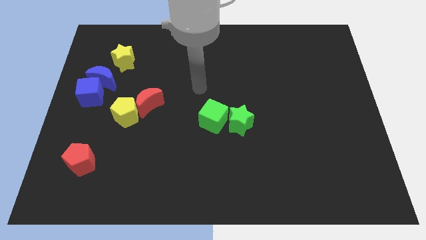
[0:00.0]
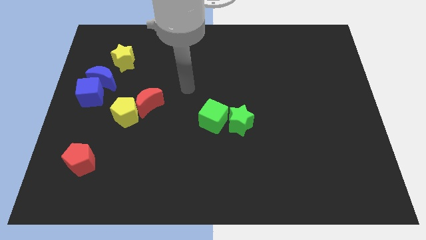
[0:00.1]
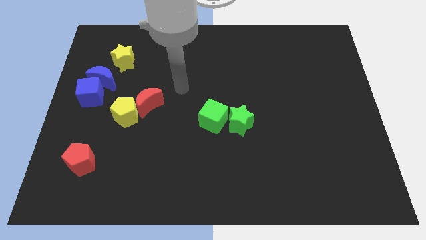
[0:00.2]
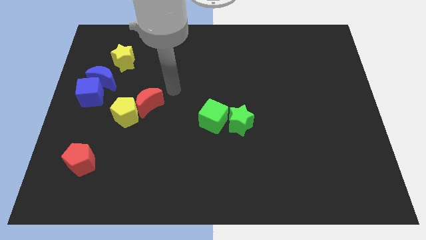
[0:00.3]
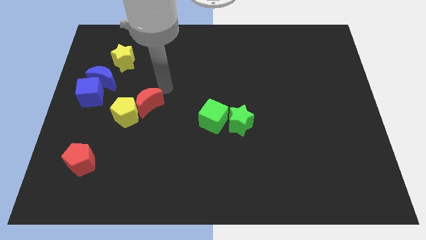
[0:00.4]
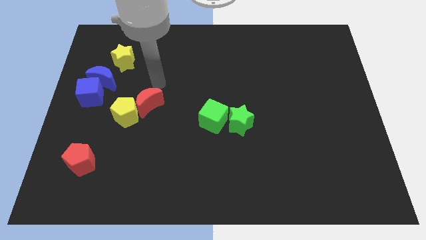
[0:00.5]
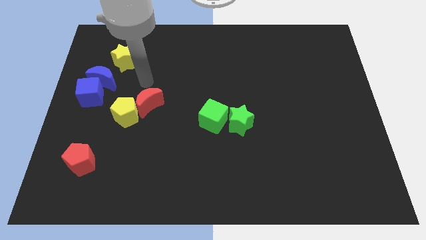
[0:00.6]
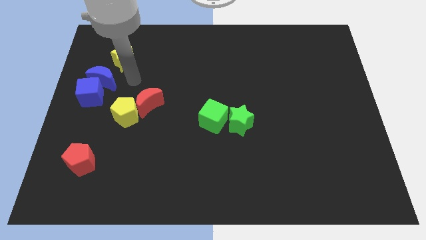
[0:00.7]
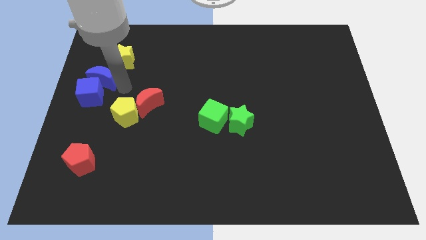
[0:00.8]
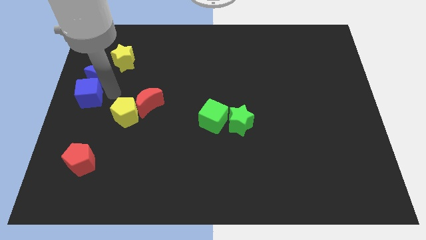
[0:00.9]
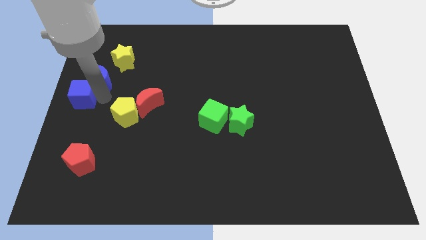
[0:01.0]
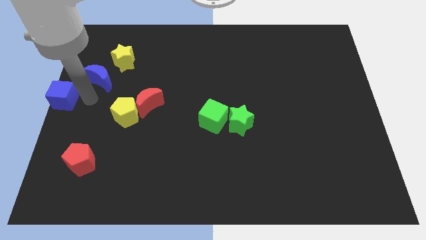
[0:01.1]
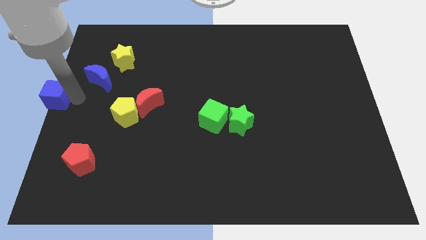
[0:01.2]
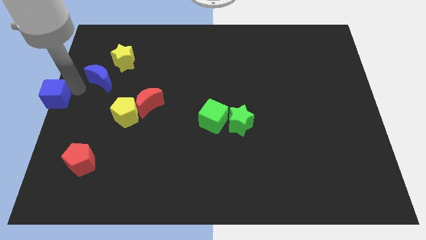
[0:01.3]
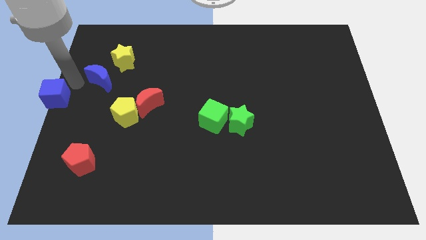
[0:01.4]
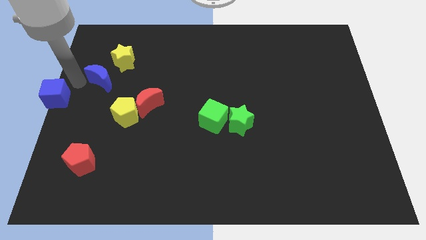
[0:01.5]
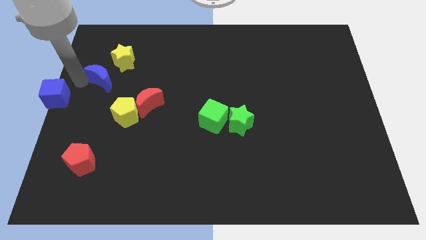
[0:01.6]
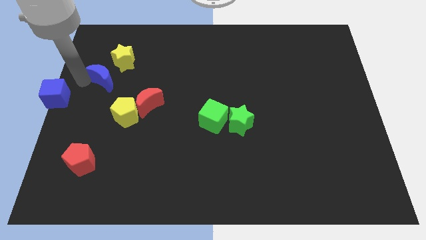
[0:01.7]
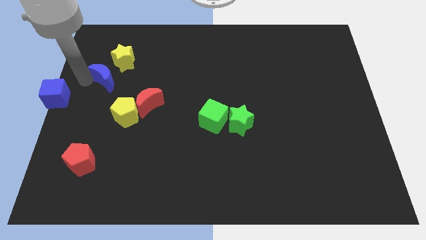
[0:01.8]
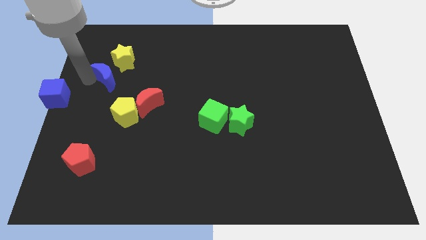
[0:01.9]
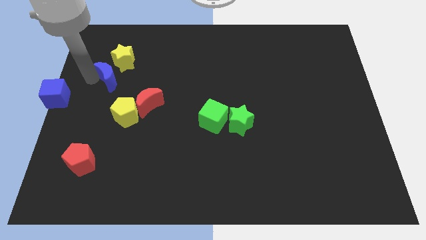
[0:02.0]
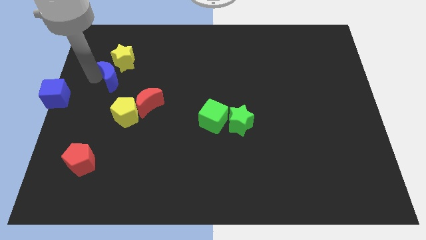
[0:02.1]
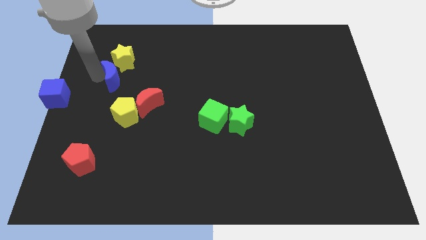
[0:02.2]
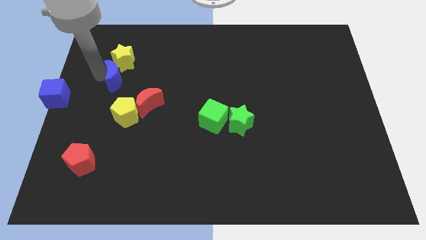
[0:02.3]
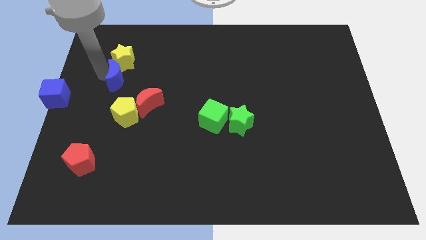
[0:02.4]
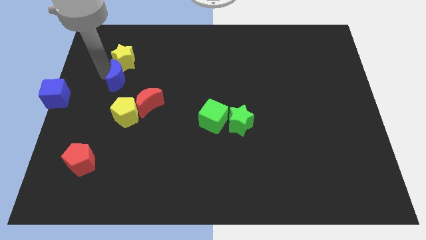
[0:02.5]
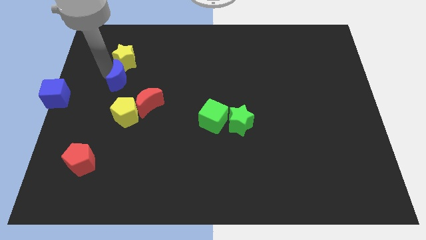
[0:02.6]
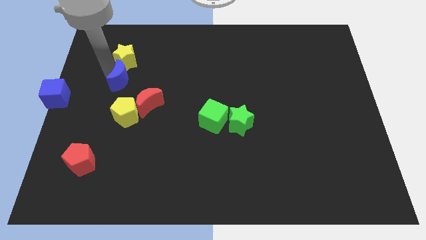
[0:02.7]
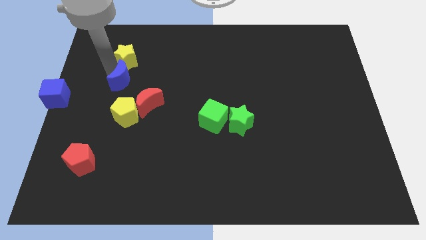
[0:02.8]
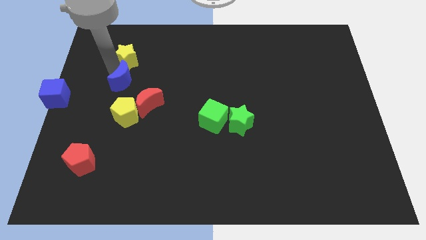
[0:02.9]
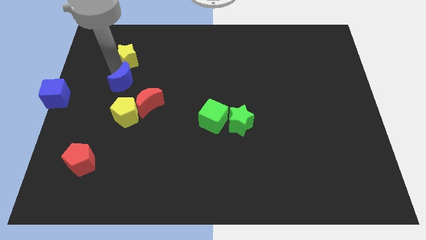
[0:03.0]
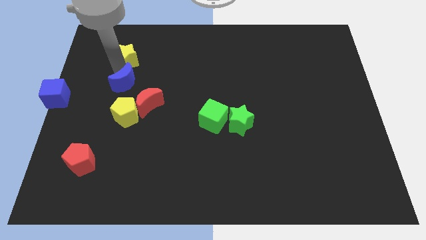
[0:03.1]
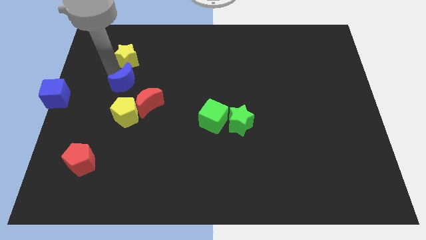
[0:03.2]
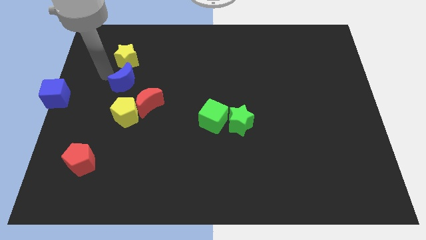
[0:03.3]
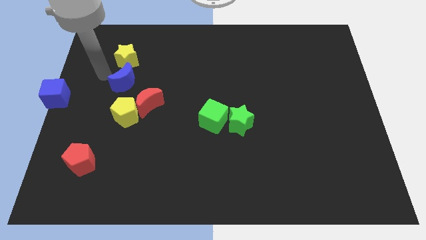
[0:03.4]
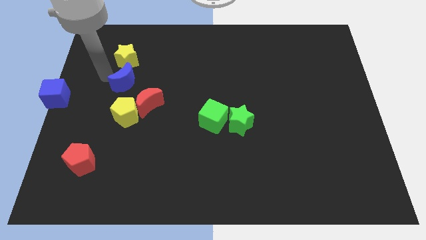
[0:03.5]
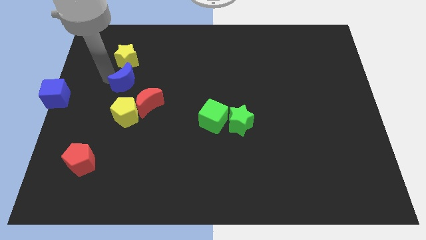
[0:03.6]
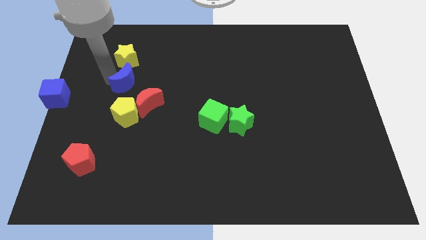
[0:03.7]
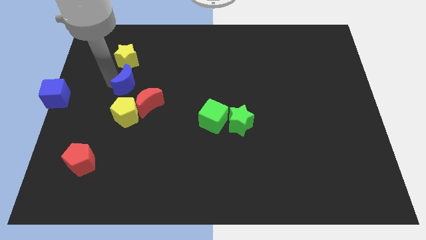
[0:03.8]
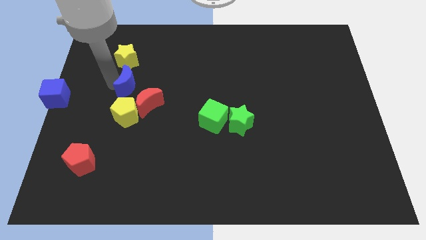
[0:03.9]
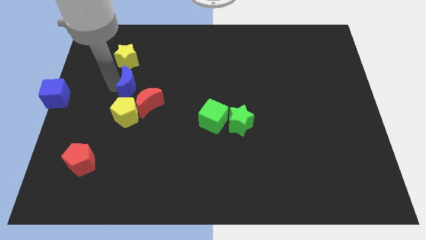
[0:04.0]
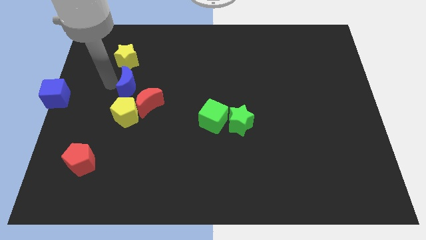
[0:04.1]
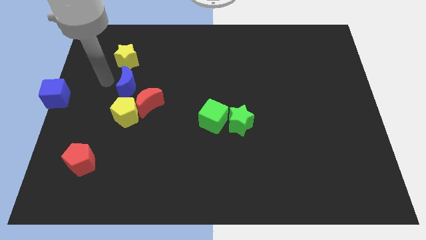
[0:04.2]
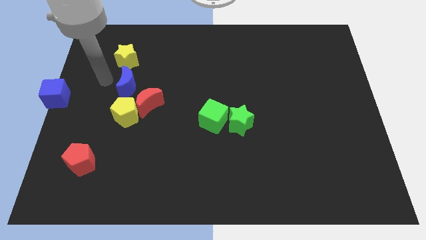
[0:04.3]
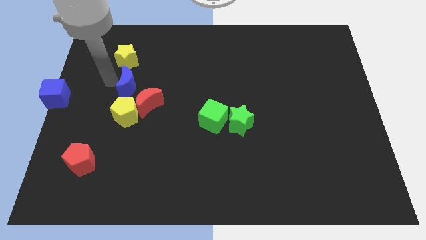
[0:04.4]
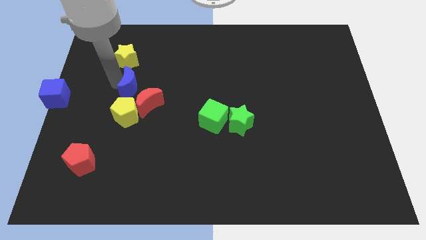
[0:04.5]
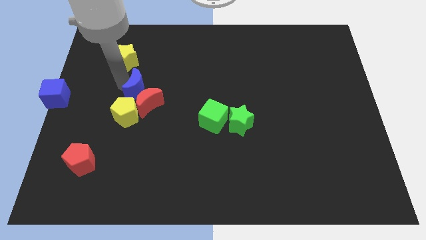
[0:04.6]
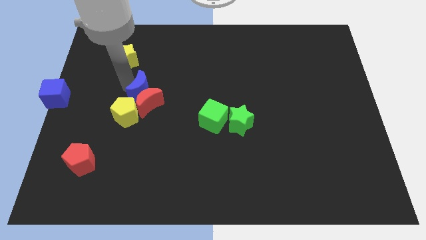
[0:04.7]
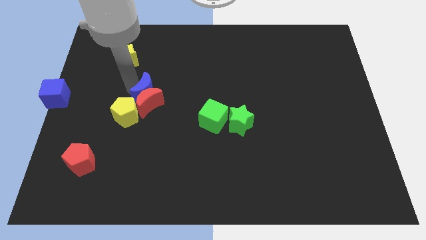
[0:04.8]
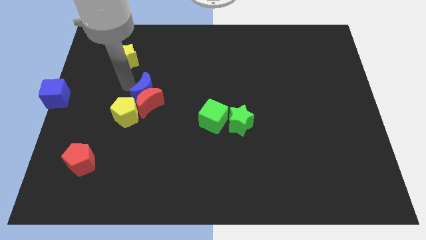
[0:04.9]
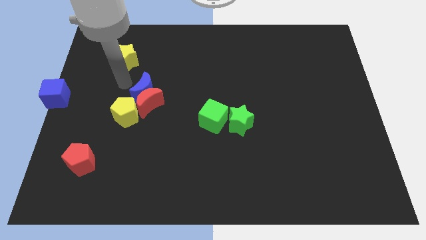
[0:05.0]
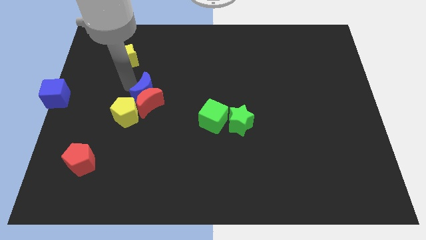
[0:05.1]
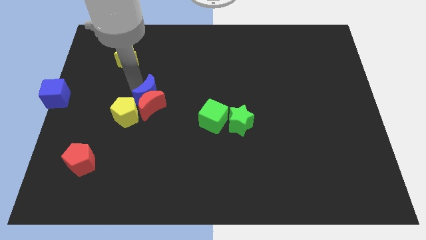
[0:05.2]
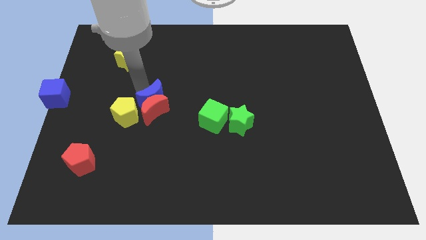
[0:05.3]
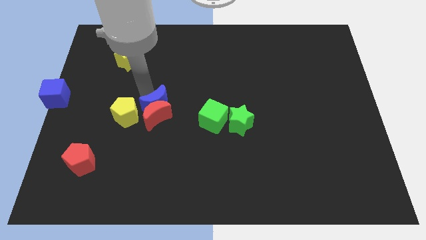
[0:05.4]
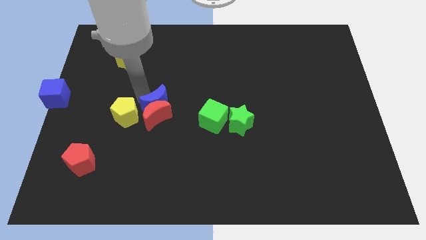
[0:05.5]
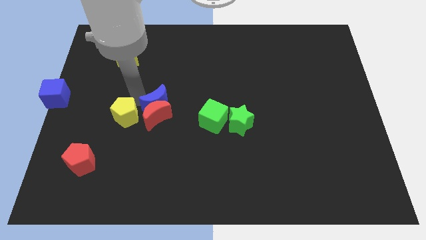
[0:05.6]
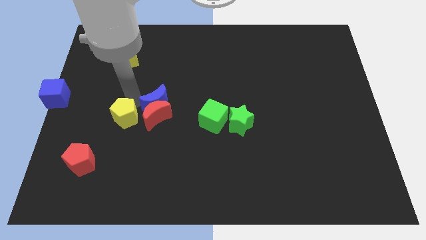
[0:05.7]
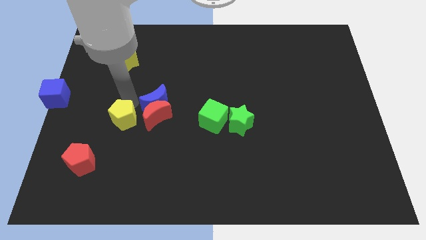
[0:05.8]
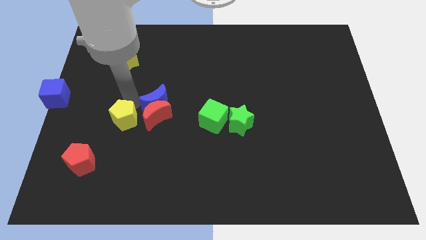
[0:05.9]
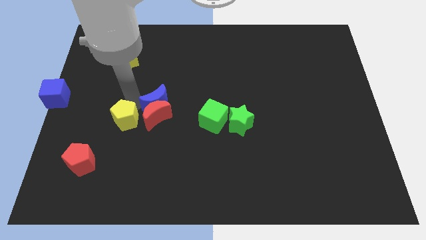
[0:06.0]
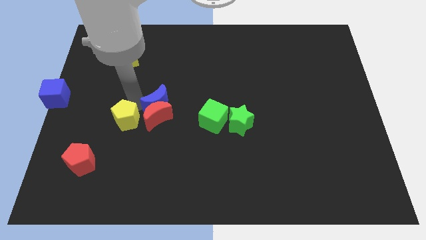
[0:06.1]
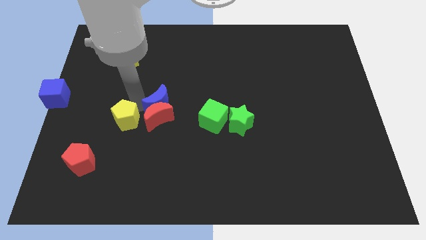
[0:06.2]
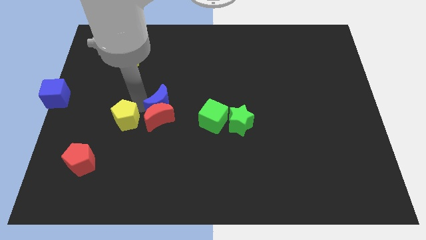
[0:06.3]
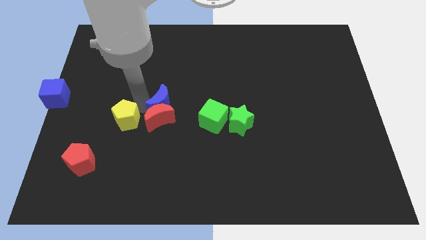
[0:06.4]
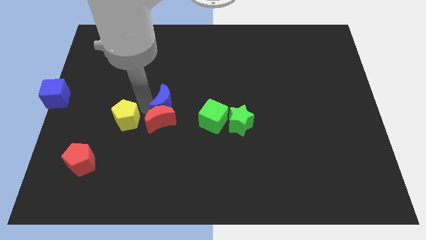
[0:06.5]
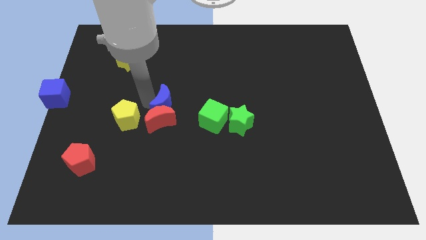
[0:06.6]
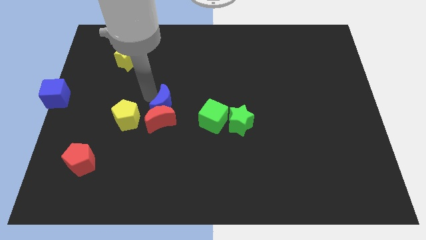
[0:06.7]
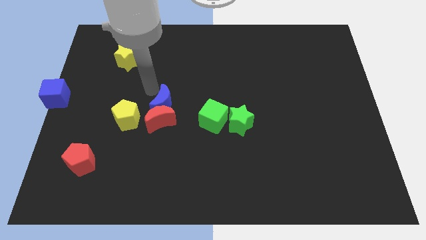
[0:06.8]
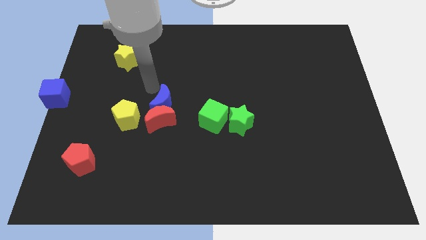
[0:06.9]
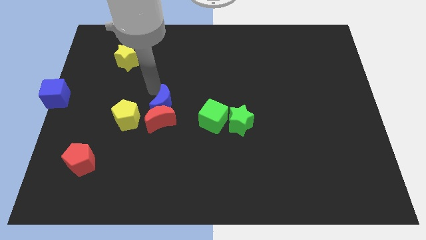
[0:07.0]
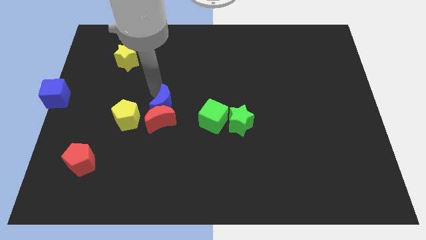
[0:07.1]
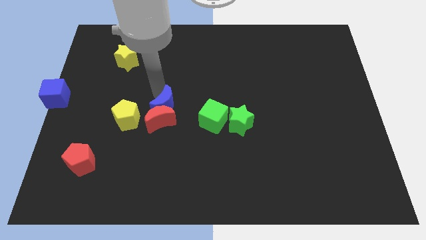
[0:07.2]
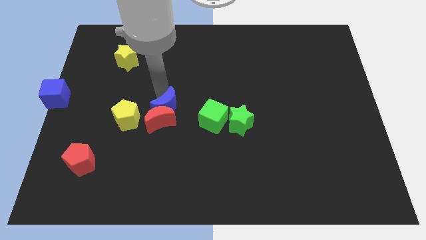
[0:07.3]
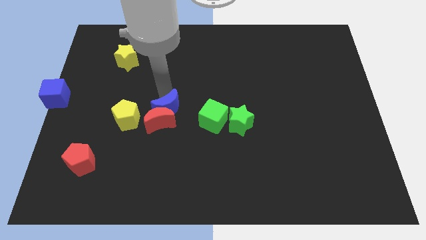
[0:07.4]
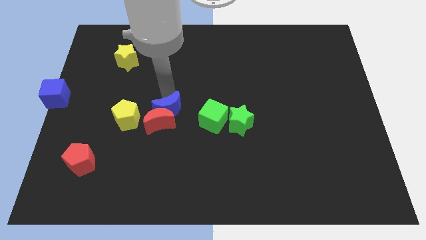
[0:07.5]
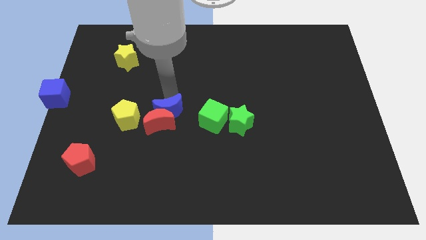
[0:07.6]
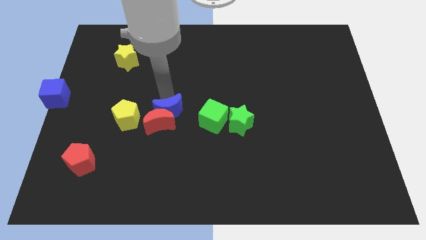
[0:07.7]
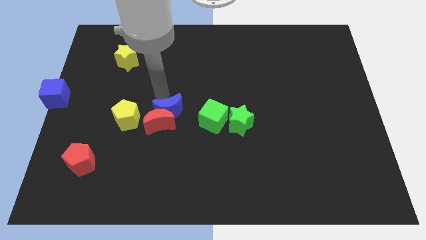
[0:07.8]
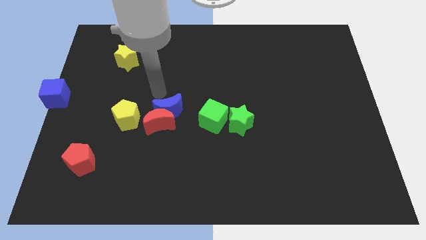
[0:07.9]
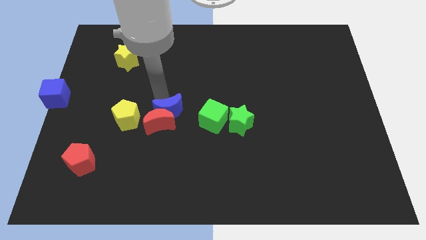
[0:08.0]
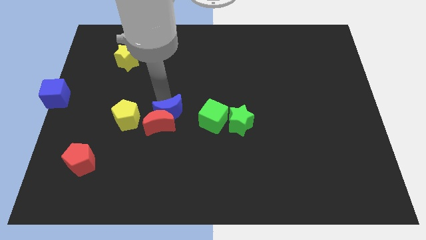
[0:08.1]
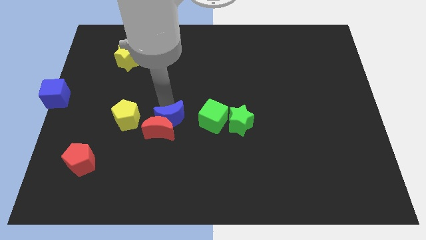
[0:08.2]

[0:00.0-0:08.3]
slide the blue moon down and then right
